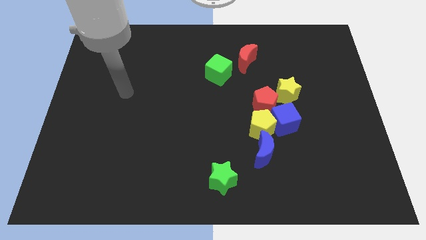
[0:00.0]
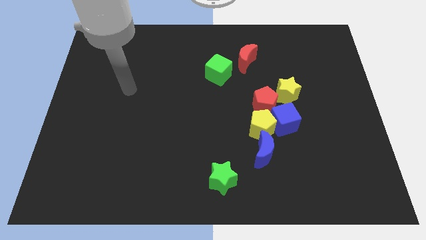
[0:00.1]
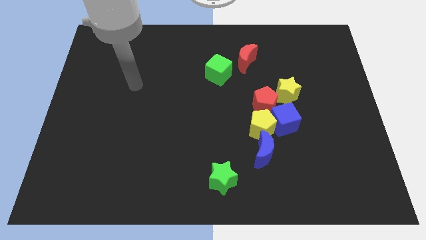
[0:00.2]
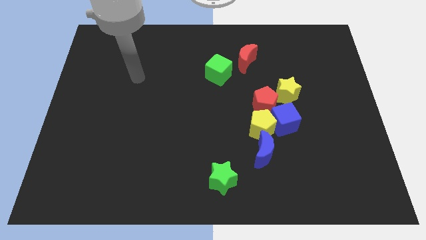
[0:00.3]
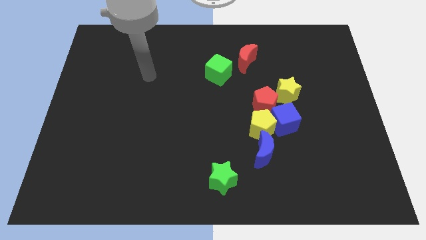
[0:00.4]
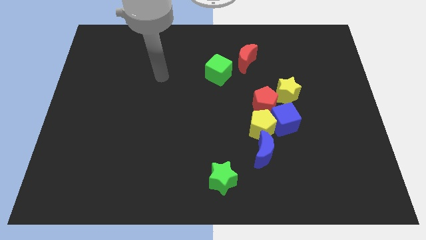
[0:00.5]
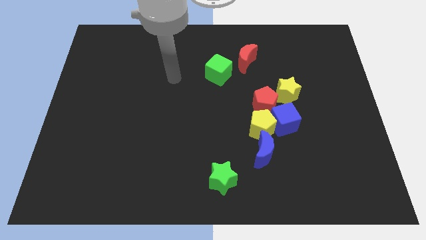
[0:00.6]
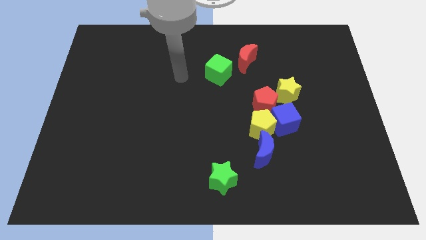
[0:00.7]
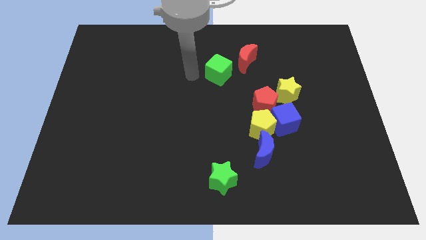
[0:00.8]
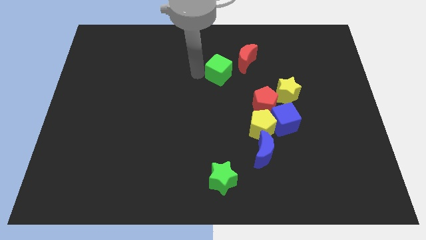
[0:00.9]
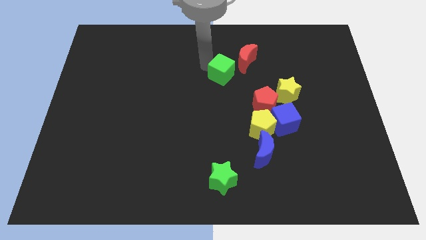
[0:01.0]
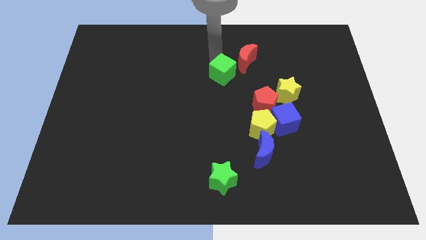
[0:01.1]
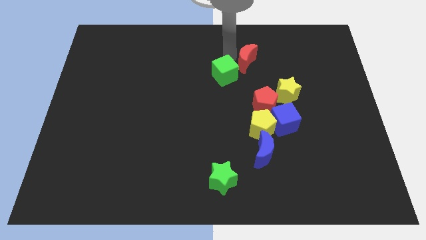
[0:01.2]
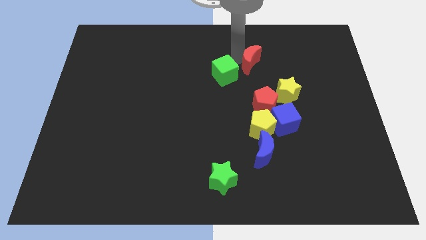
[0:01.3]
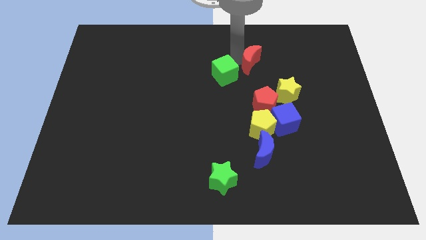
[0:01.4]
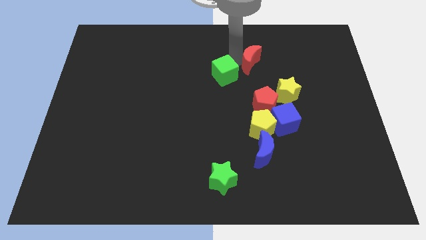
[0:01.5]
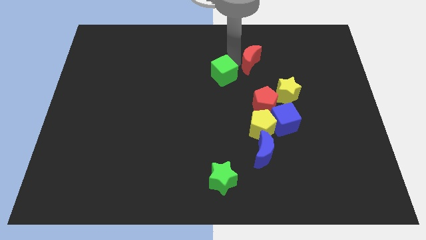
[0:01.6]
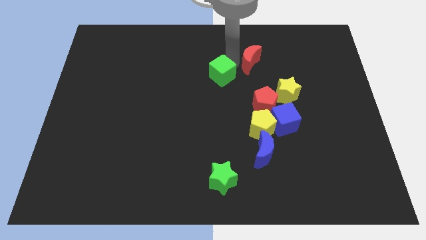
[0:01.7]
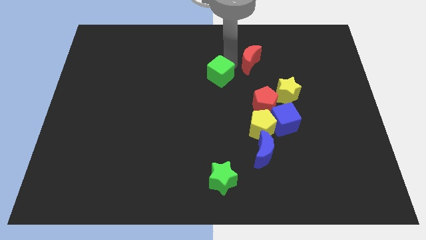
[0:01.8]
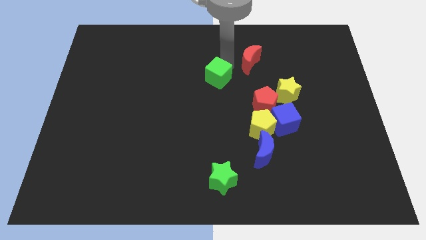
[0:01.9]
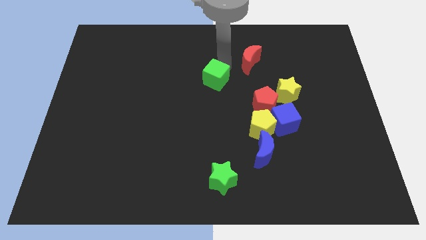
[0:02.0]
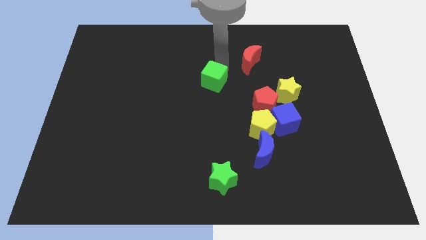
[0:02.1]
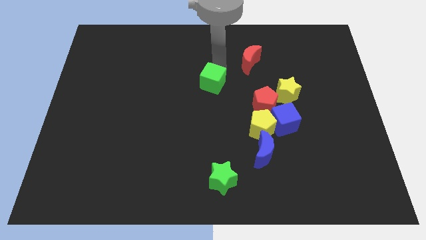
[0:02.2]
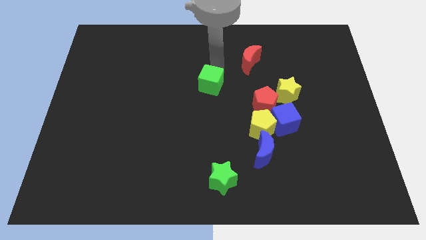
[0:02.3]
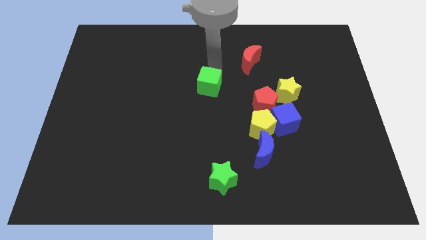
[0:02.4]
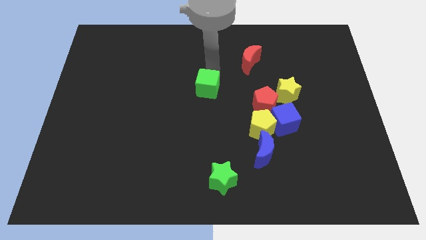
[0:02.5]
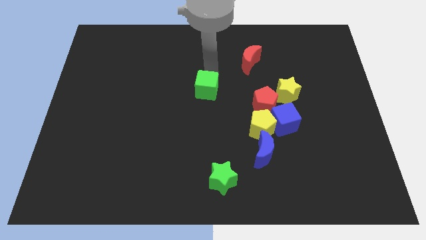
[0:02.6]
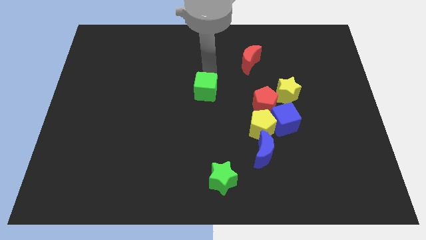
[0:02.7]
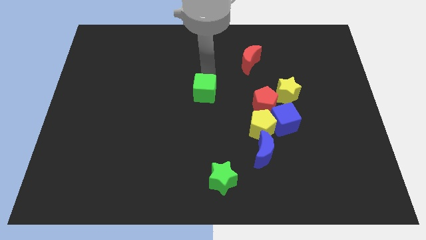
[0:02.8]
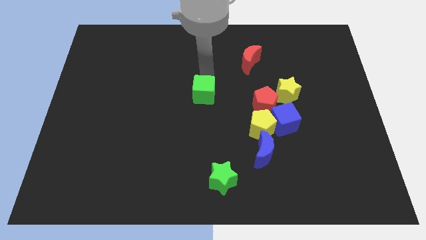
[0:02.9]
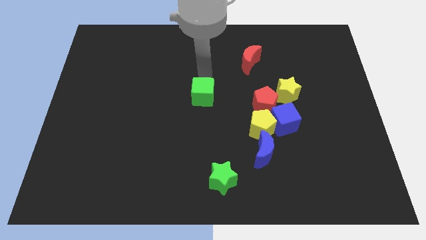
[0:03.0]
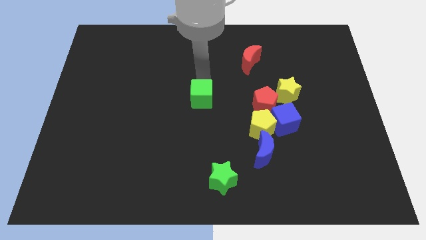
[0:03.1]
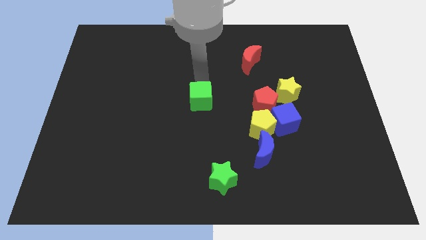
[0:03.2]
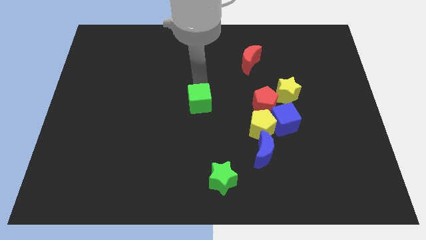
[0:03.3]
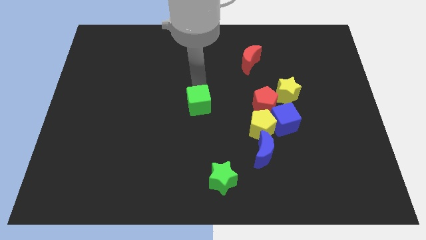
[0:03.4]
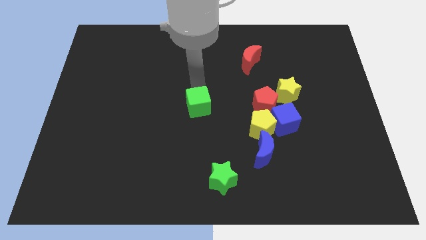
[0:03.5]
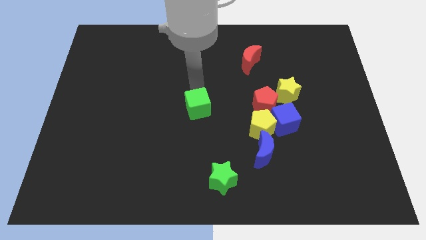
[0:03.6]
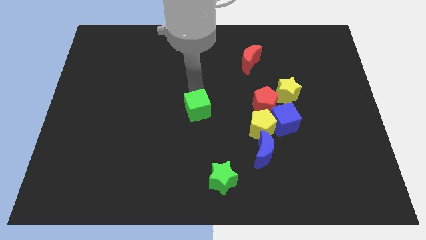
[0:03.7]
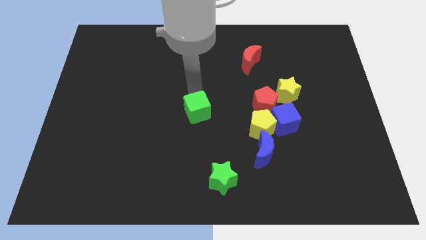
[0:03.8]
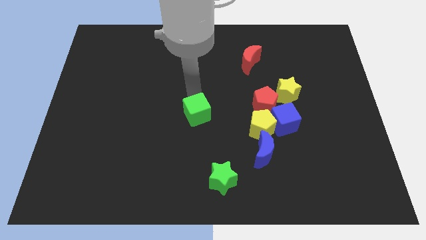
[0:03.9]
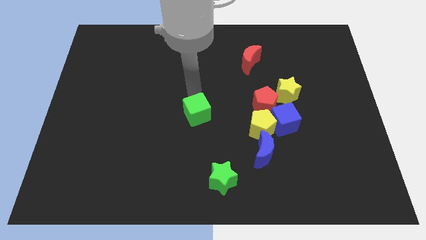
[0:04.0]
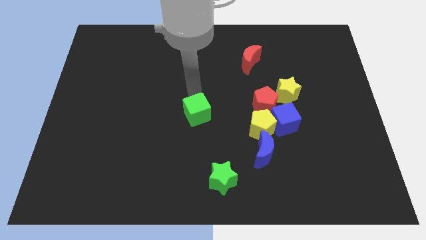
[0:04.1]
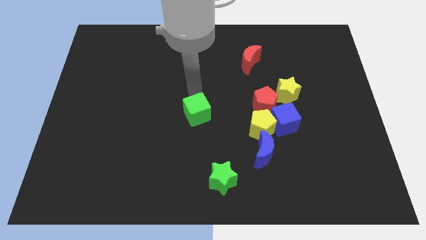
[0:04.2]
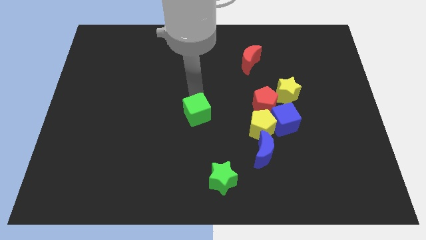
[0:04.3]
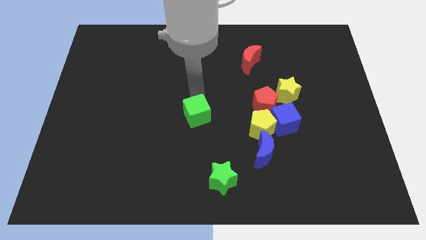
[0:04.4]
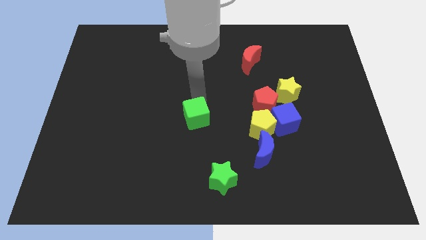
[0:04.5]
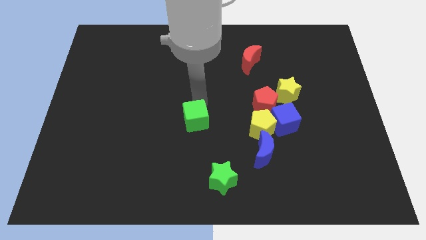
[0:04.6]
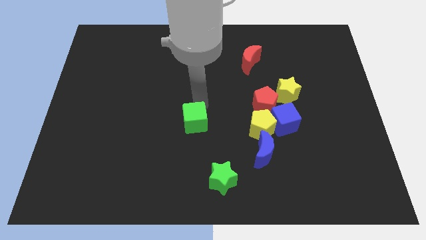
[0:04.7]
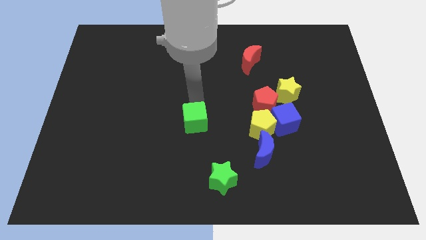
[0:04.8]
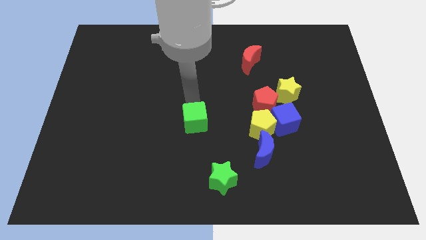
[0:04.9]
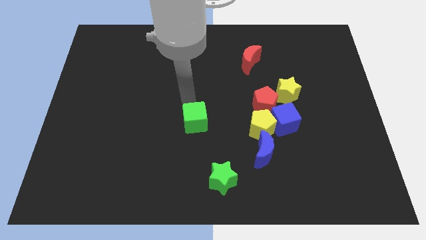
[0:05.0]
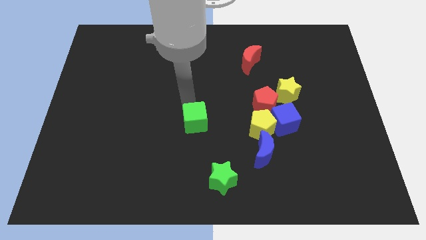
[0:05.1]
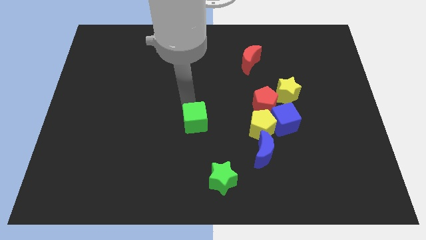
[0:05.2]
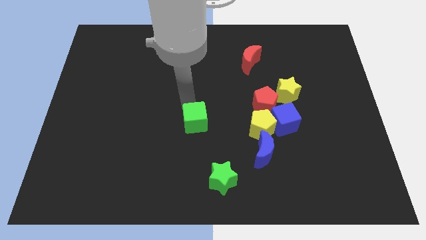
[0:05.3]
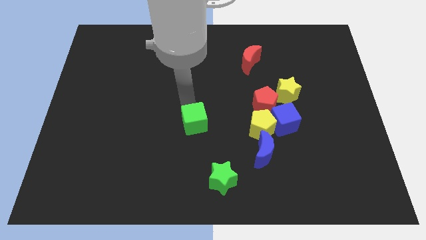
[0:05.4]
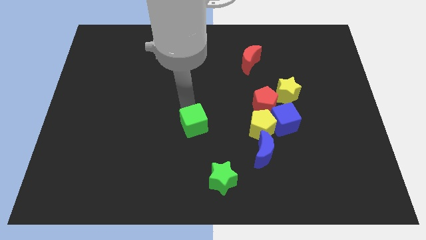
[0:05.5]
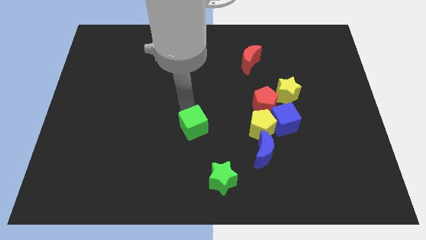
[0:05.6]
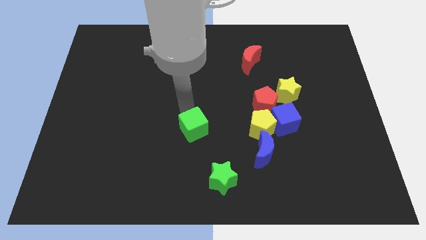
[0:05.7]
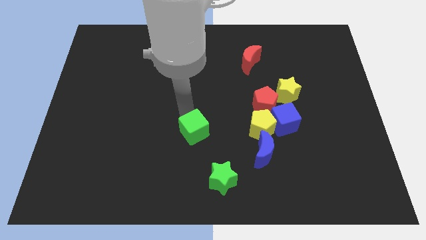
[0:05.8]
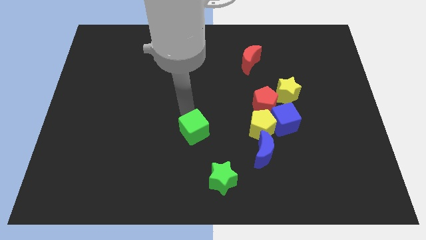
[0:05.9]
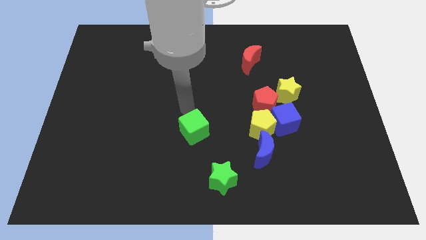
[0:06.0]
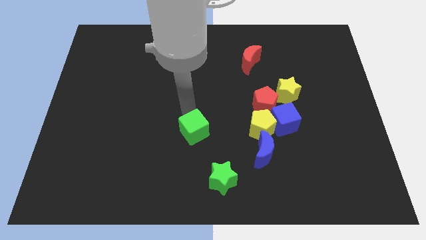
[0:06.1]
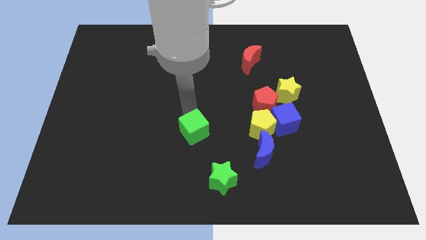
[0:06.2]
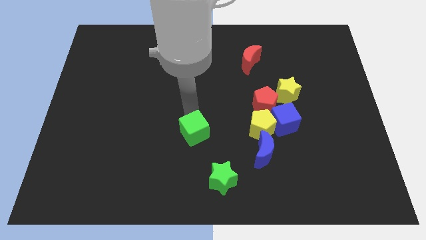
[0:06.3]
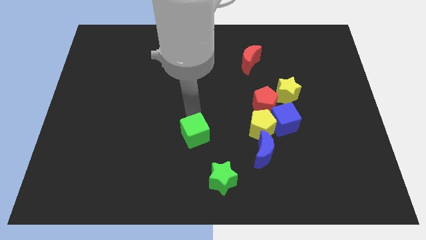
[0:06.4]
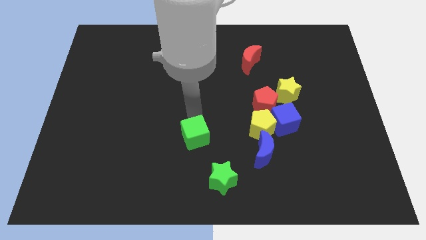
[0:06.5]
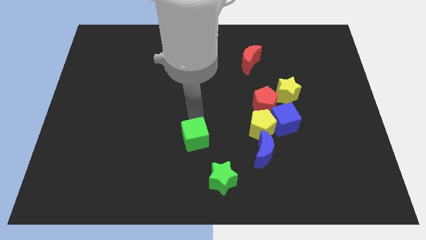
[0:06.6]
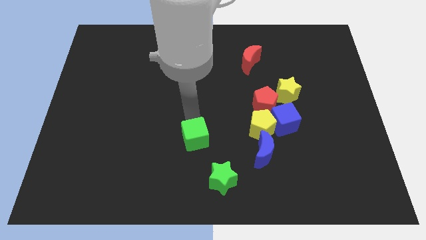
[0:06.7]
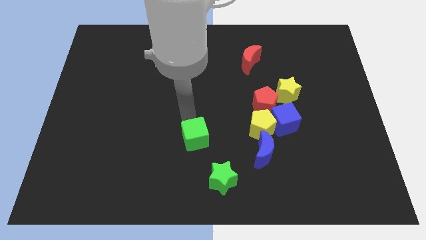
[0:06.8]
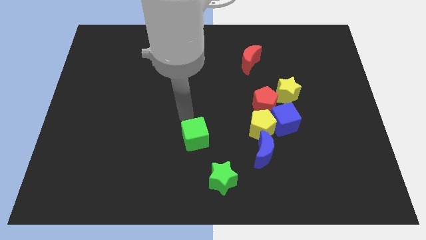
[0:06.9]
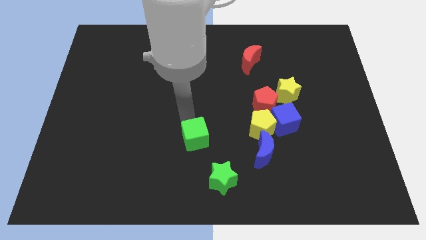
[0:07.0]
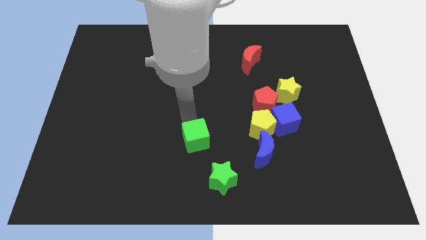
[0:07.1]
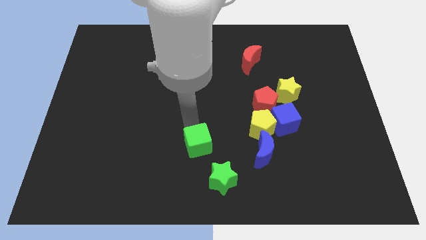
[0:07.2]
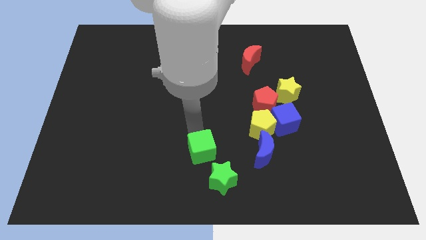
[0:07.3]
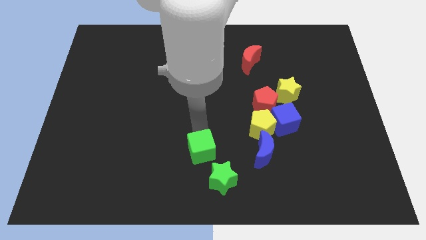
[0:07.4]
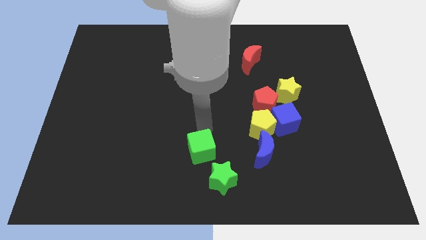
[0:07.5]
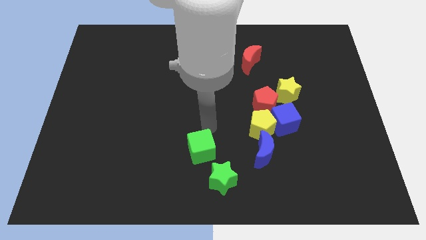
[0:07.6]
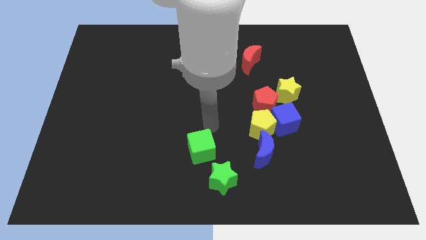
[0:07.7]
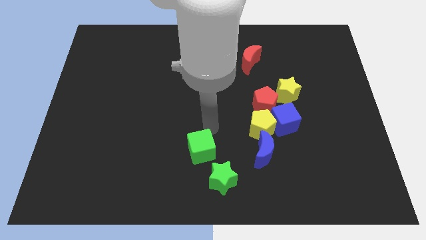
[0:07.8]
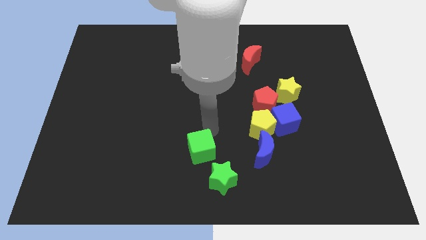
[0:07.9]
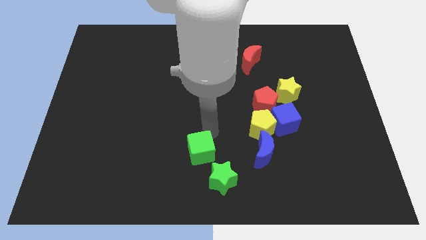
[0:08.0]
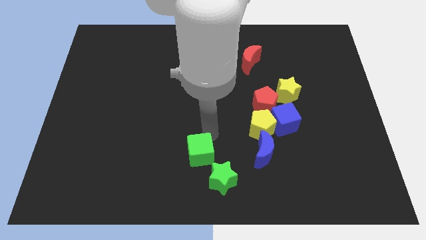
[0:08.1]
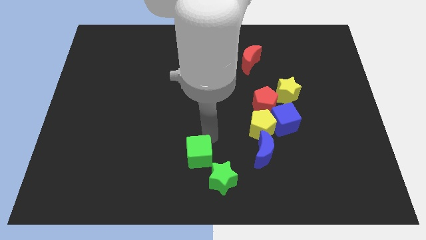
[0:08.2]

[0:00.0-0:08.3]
slide the green cube to the bottom
